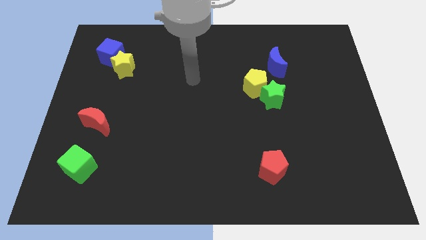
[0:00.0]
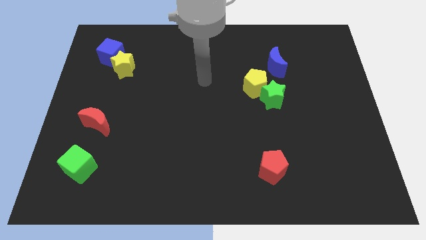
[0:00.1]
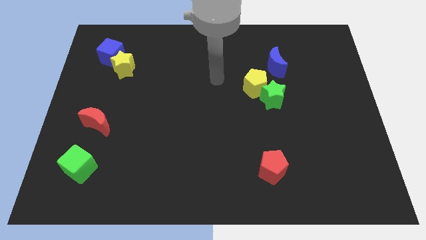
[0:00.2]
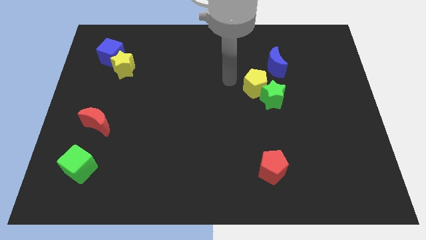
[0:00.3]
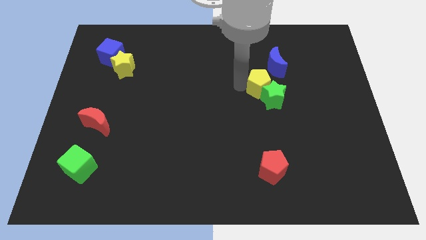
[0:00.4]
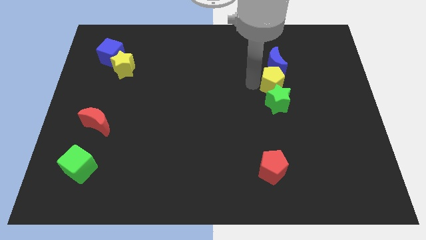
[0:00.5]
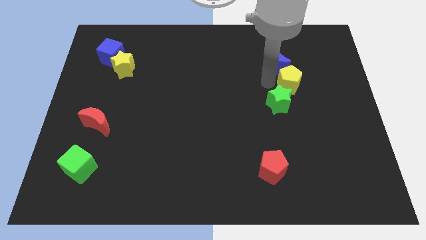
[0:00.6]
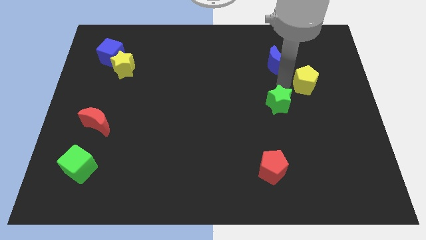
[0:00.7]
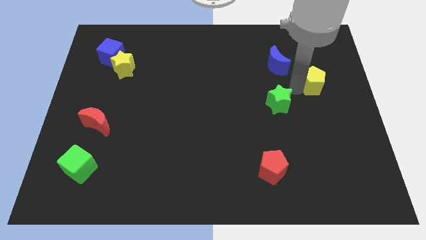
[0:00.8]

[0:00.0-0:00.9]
pull the green star apart from the yellow pentagon

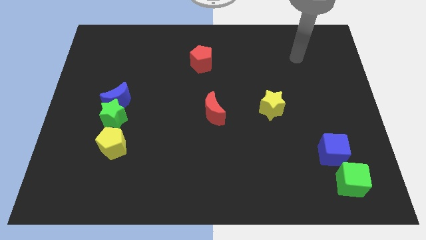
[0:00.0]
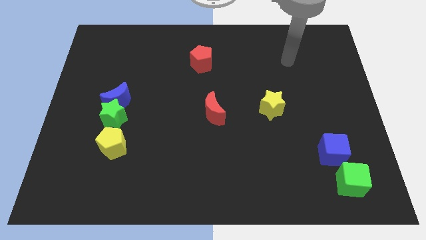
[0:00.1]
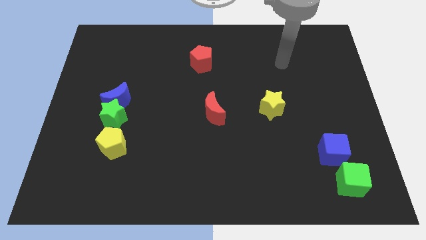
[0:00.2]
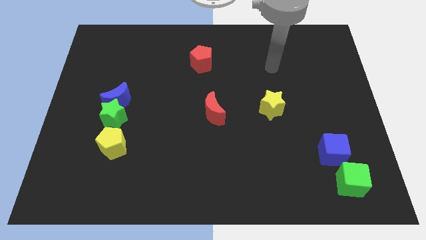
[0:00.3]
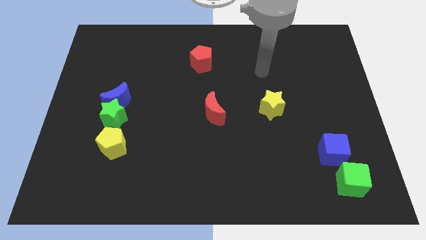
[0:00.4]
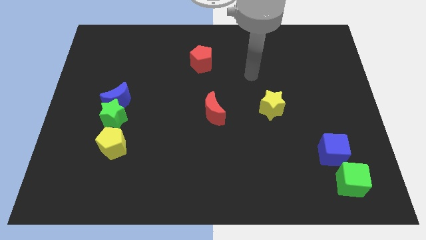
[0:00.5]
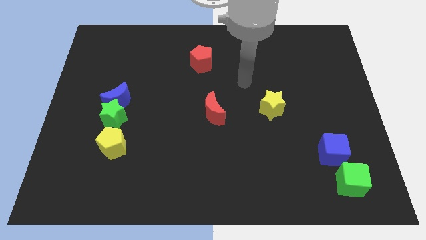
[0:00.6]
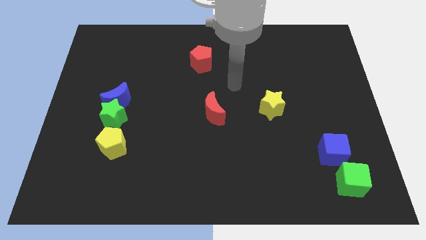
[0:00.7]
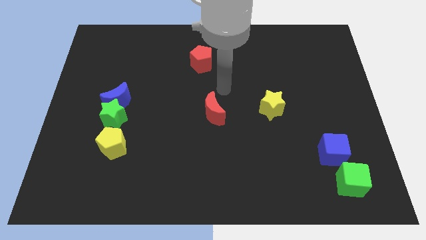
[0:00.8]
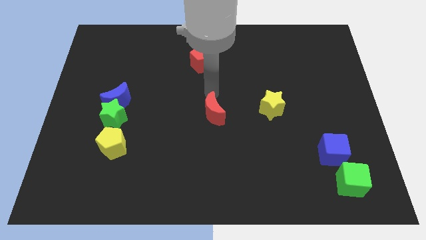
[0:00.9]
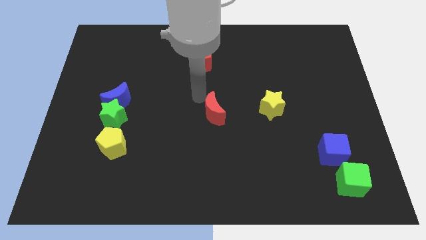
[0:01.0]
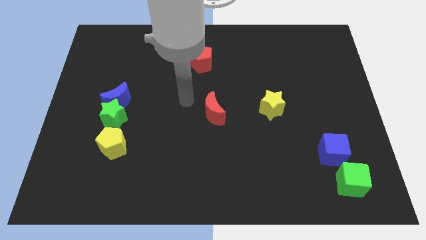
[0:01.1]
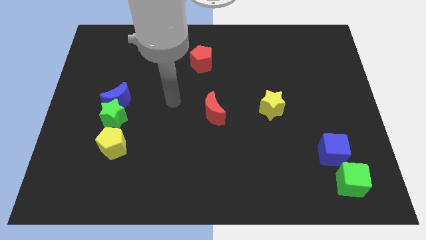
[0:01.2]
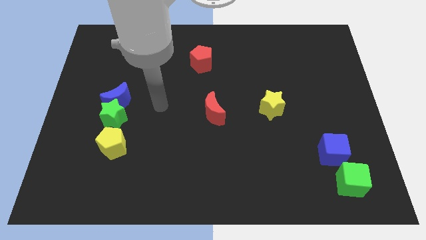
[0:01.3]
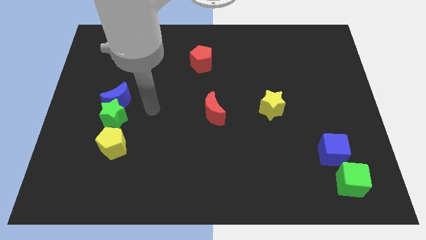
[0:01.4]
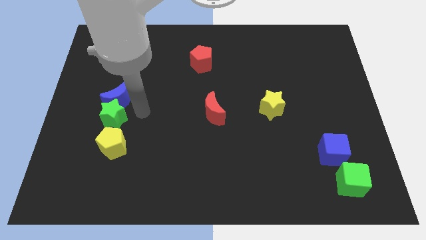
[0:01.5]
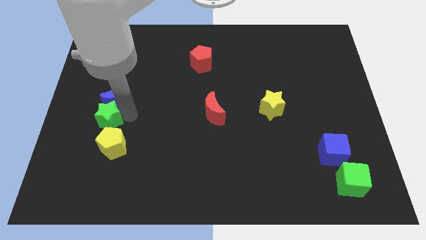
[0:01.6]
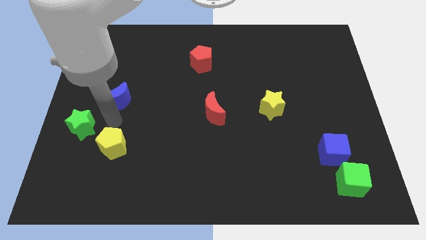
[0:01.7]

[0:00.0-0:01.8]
pull the blue moon apart from the green star

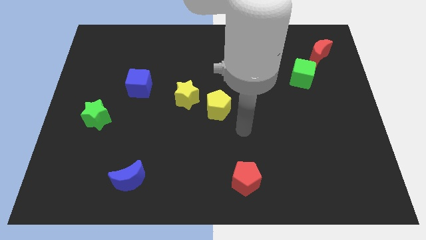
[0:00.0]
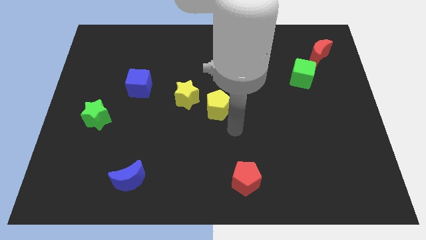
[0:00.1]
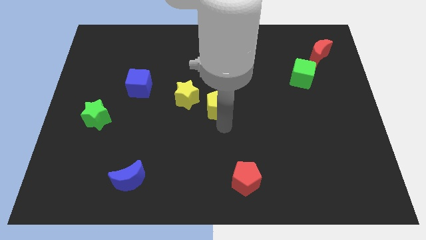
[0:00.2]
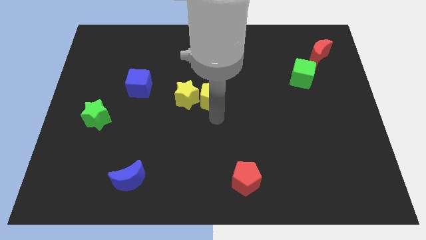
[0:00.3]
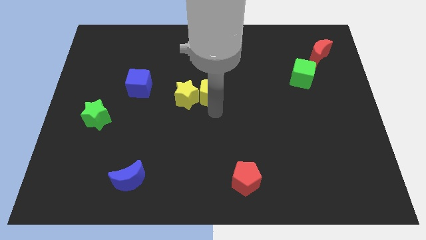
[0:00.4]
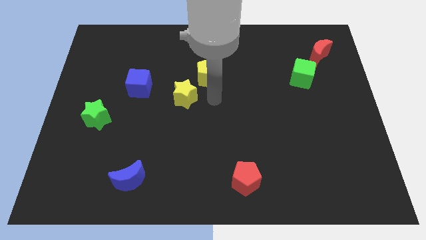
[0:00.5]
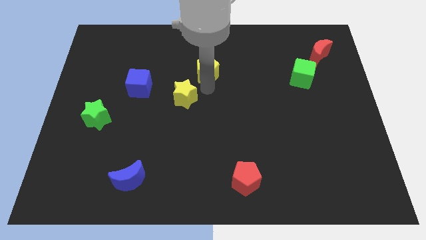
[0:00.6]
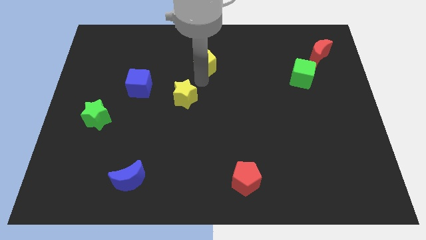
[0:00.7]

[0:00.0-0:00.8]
move the yellow star away from the yellow pentagon

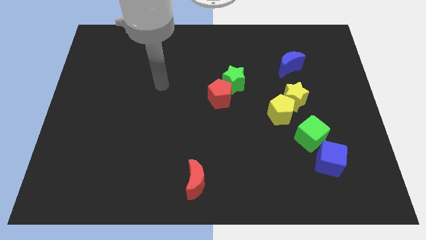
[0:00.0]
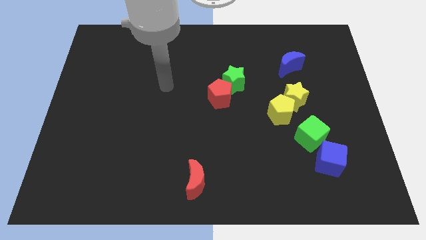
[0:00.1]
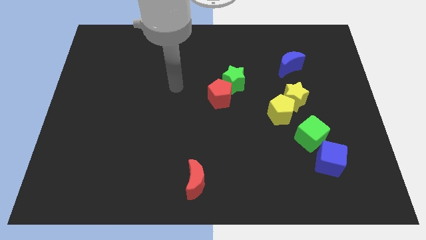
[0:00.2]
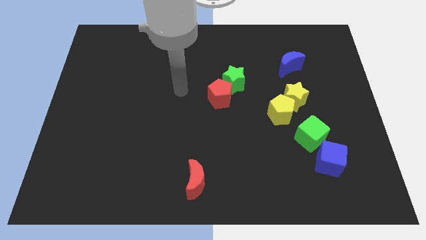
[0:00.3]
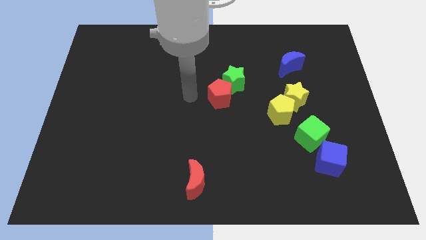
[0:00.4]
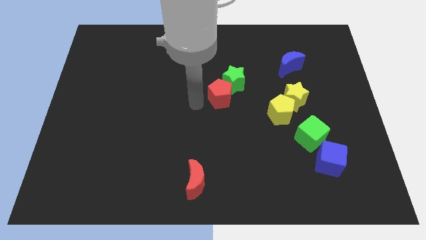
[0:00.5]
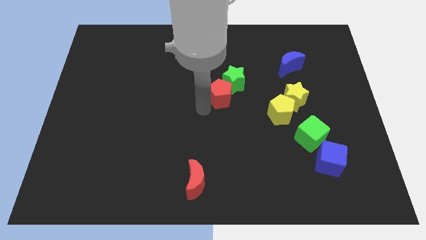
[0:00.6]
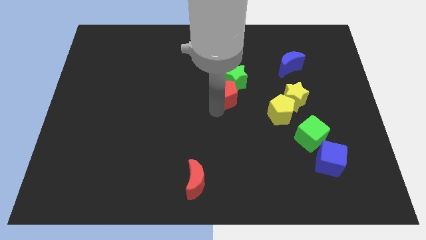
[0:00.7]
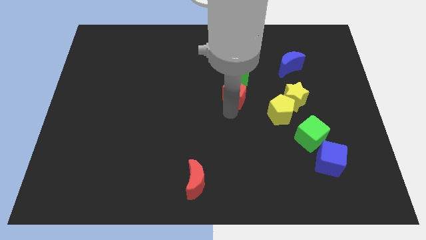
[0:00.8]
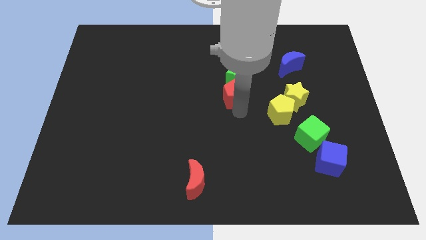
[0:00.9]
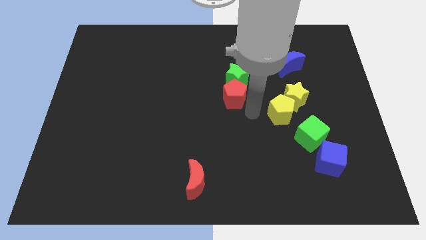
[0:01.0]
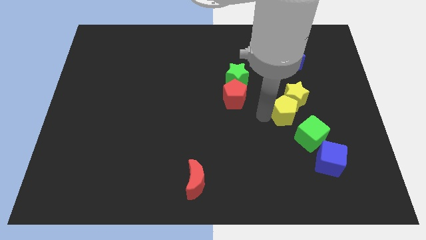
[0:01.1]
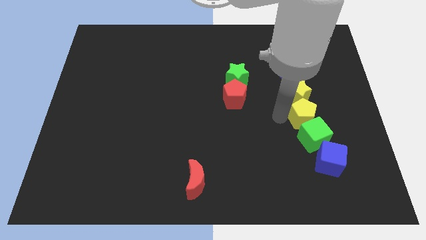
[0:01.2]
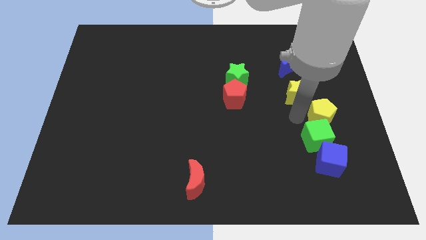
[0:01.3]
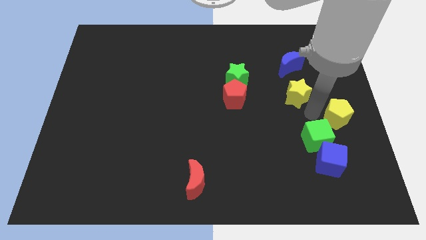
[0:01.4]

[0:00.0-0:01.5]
pull the yellow star apart from the yellow pentagon

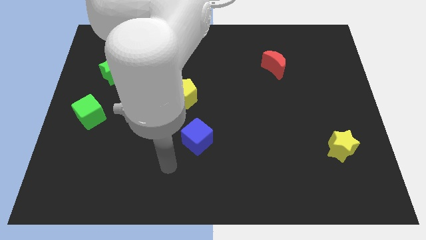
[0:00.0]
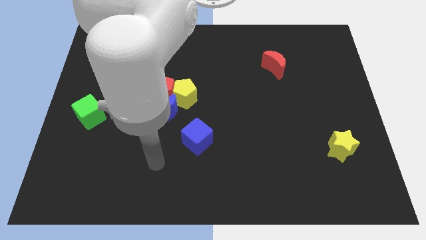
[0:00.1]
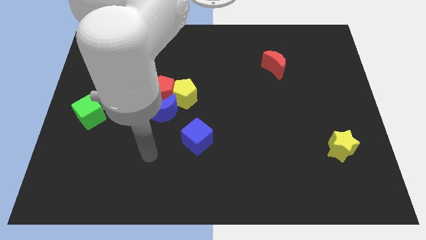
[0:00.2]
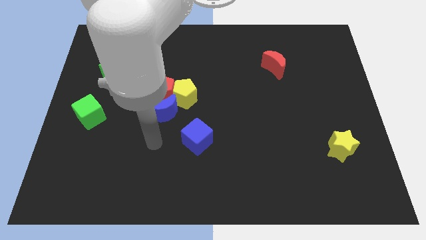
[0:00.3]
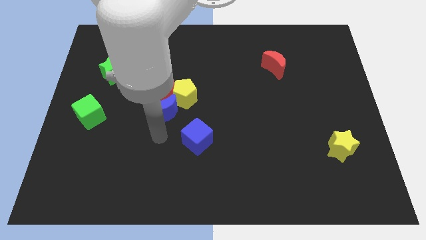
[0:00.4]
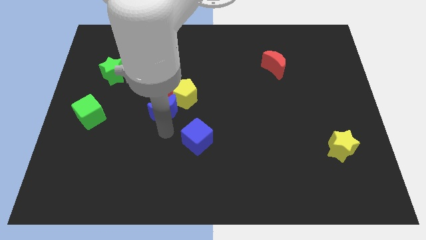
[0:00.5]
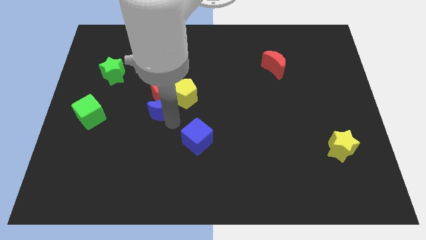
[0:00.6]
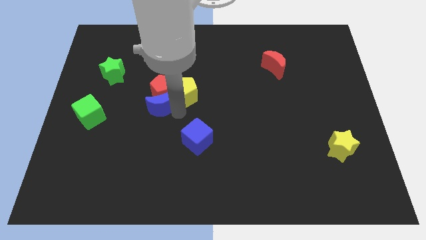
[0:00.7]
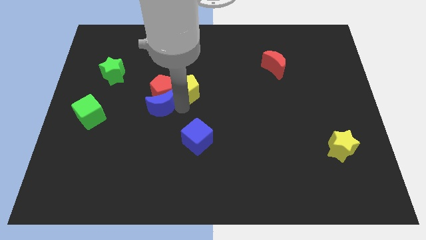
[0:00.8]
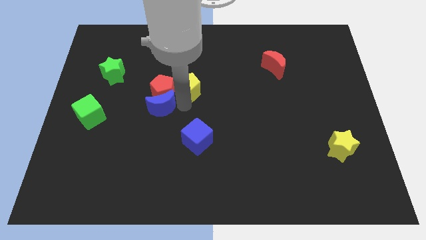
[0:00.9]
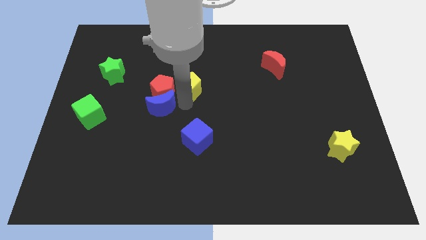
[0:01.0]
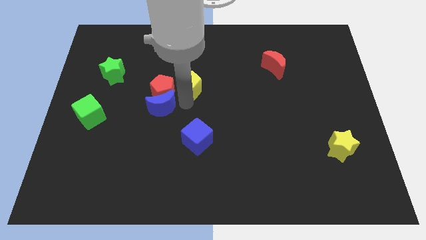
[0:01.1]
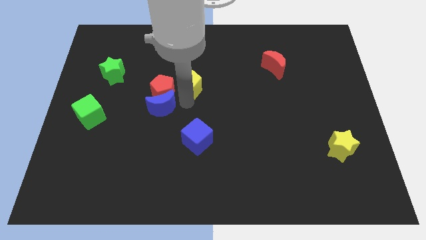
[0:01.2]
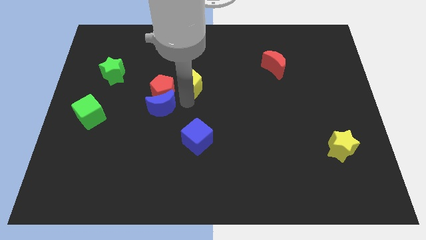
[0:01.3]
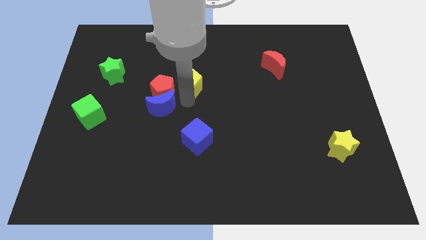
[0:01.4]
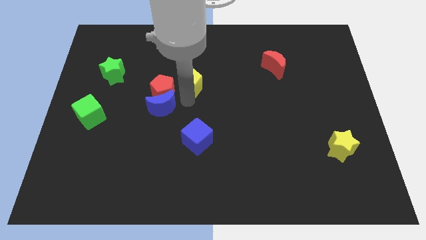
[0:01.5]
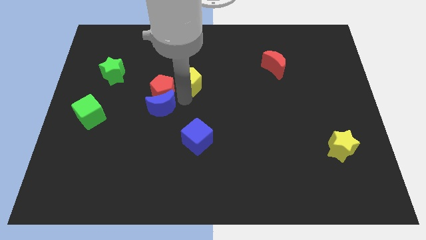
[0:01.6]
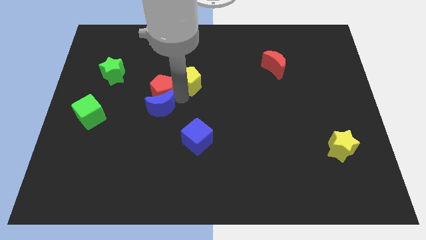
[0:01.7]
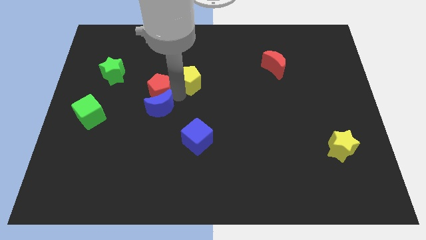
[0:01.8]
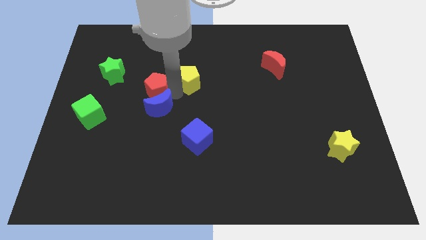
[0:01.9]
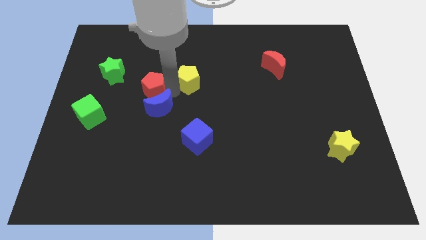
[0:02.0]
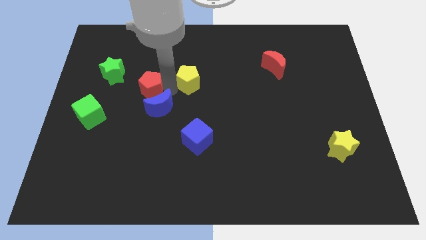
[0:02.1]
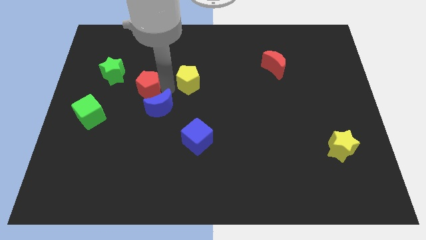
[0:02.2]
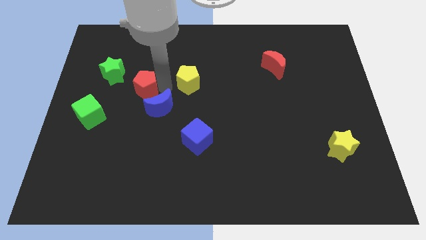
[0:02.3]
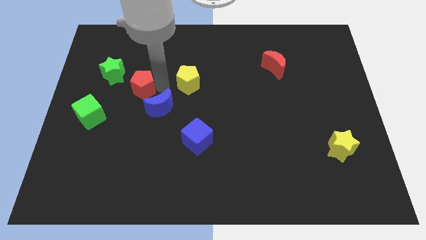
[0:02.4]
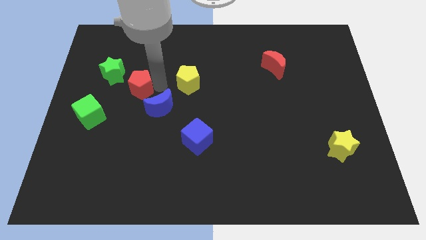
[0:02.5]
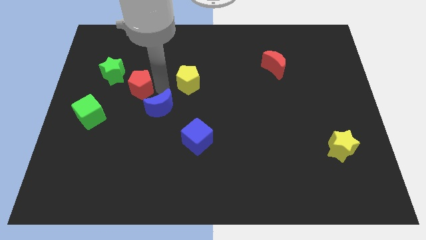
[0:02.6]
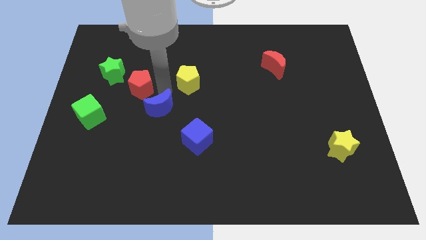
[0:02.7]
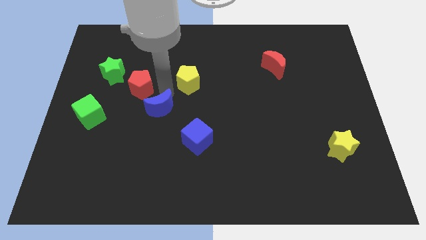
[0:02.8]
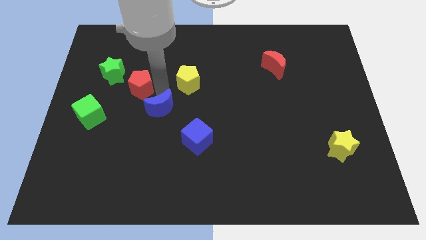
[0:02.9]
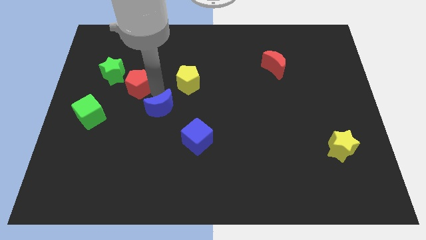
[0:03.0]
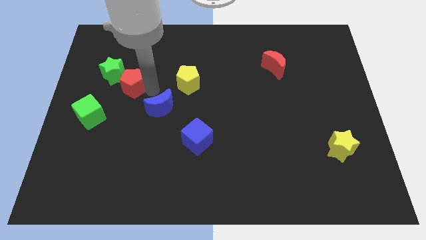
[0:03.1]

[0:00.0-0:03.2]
move the red pentagon away from the yellow pentagon and blue moon

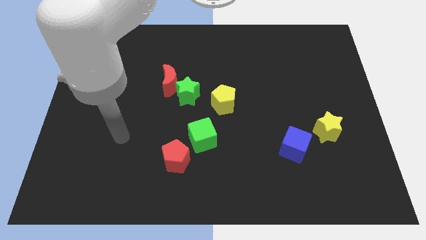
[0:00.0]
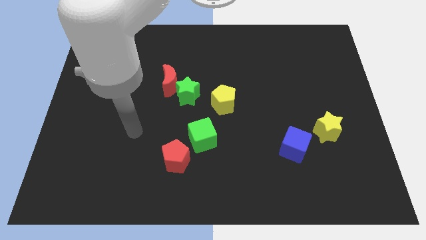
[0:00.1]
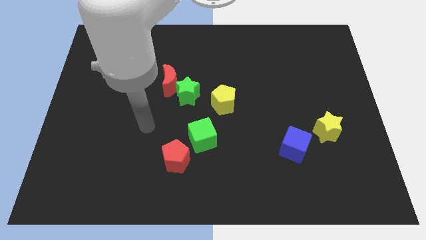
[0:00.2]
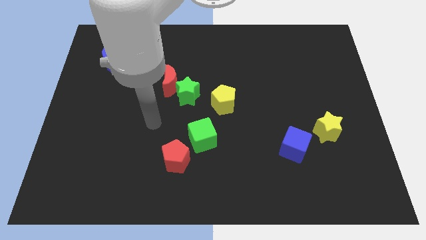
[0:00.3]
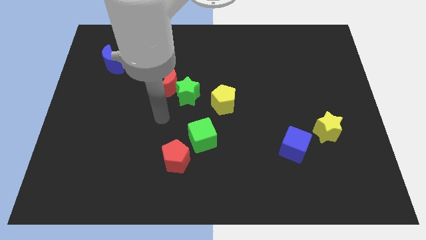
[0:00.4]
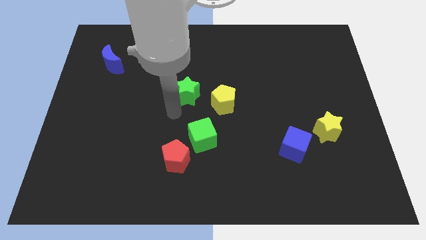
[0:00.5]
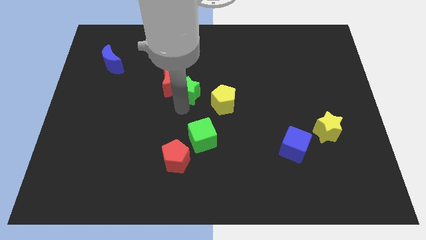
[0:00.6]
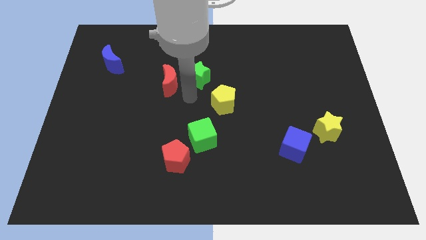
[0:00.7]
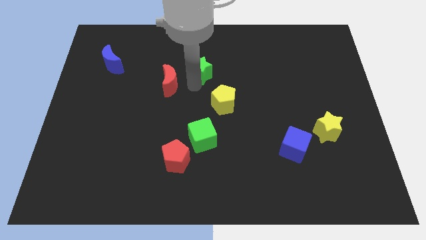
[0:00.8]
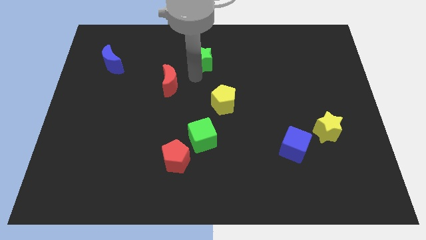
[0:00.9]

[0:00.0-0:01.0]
move the red moon away from the green star

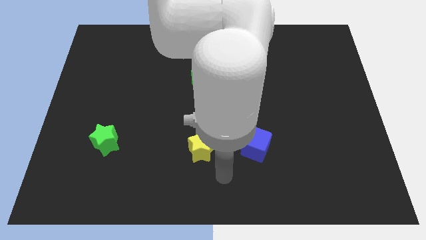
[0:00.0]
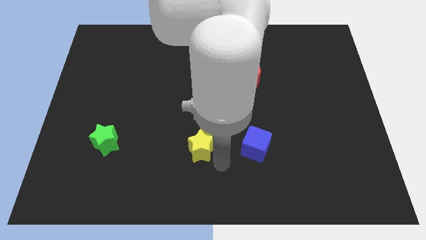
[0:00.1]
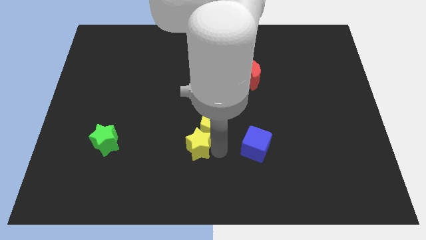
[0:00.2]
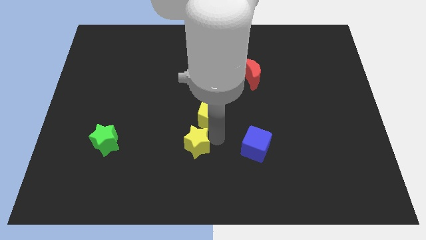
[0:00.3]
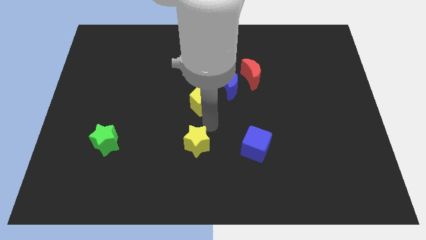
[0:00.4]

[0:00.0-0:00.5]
separate the yellow star from the yellow pentagon
